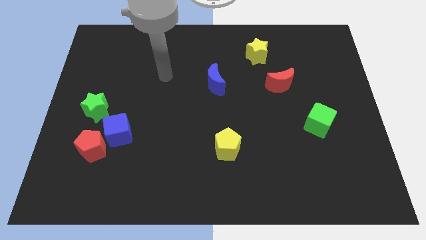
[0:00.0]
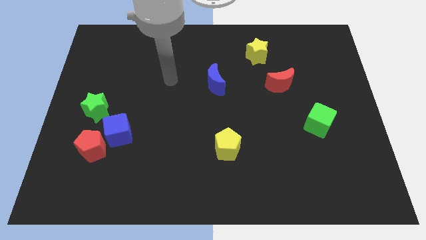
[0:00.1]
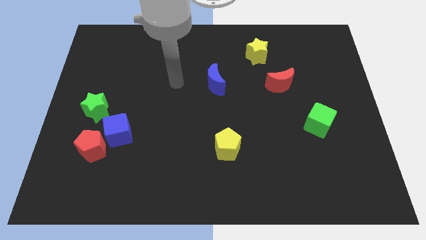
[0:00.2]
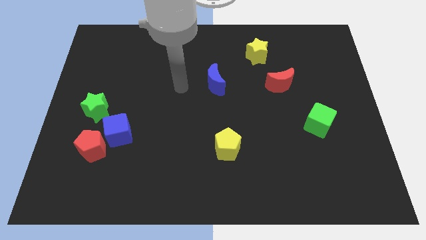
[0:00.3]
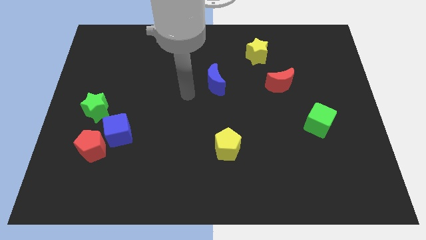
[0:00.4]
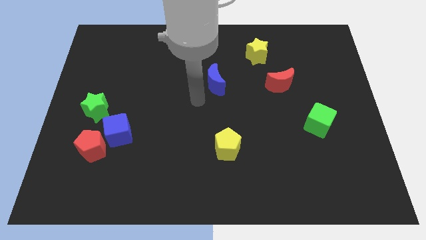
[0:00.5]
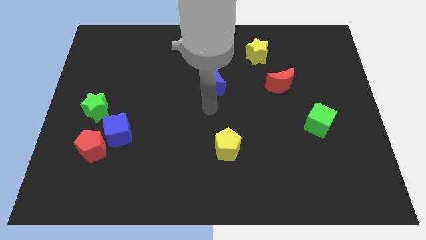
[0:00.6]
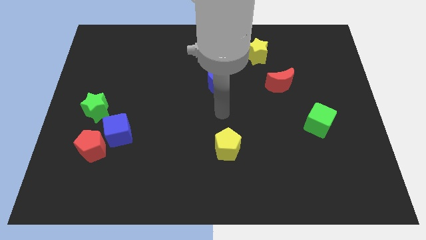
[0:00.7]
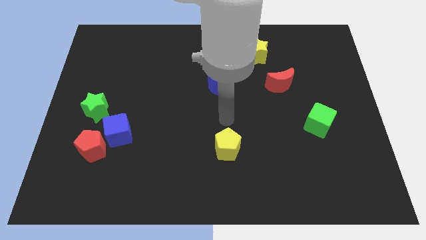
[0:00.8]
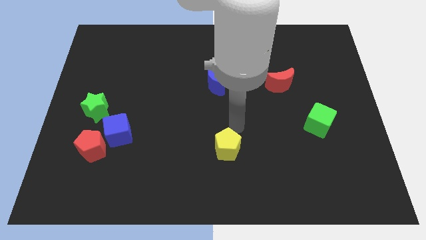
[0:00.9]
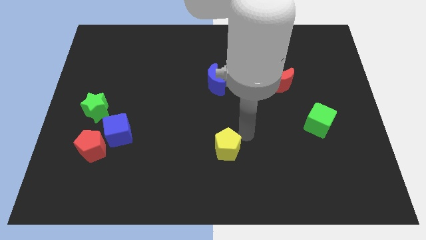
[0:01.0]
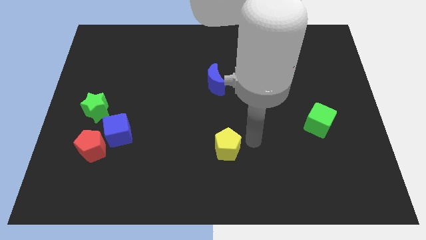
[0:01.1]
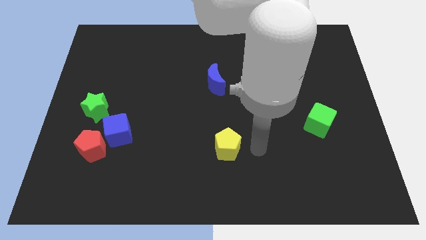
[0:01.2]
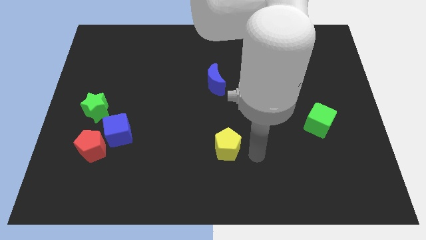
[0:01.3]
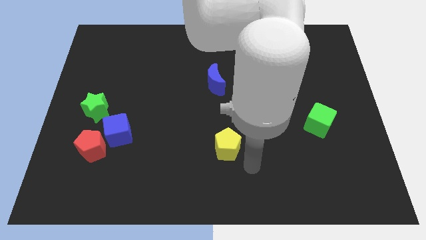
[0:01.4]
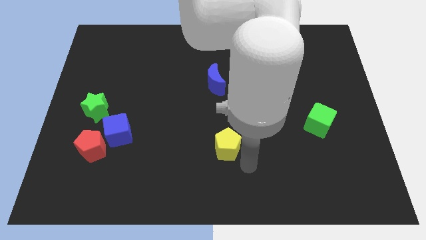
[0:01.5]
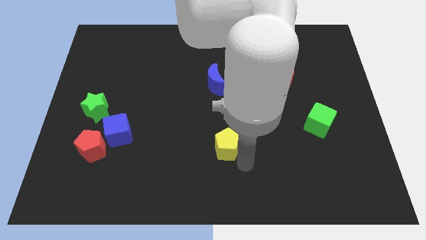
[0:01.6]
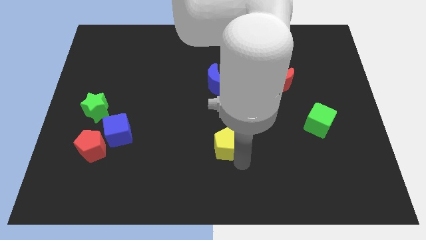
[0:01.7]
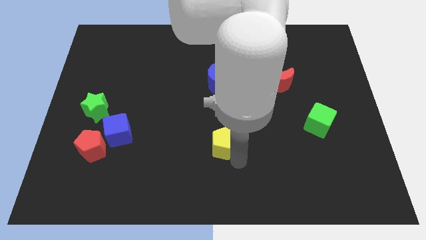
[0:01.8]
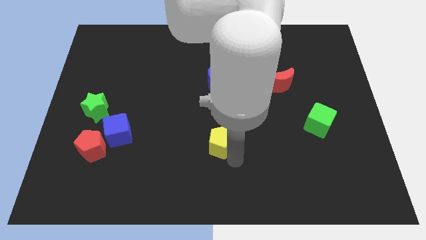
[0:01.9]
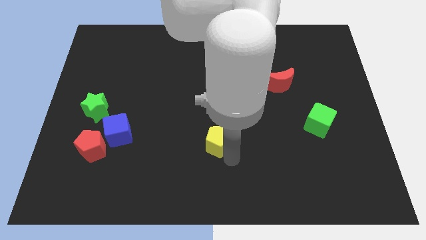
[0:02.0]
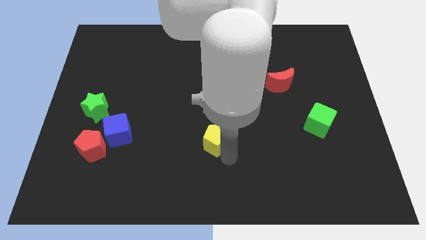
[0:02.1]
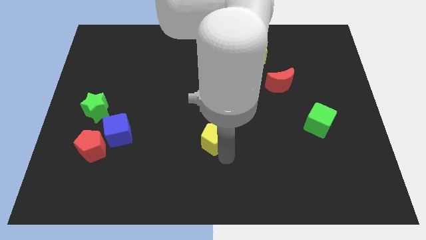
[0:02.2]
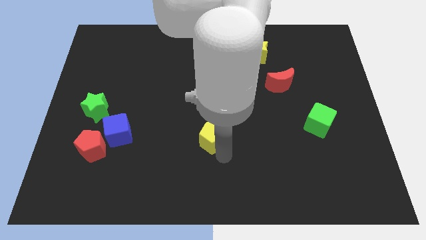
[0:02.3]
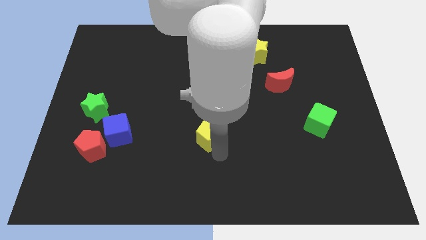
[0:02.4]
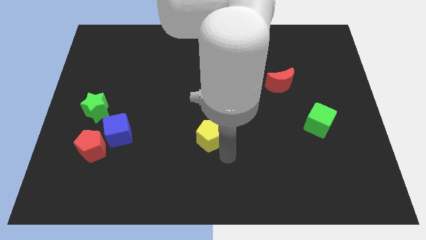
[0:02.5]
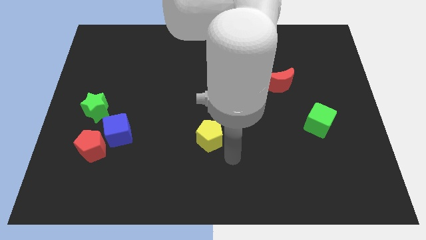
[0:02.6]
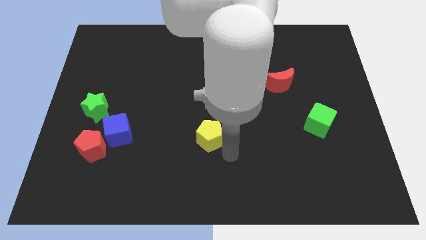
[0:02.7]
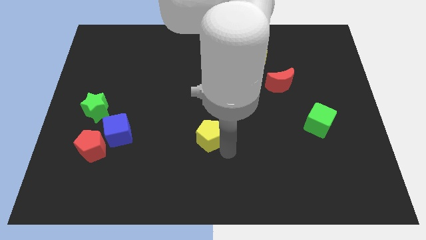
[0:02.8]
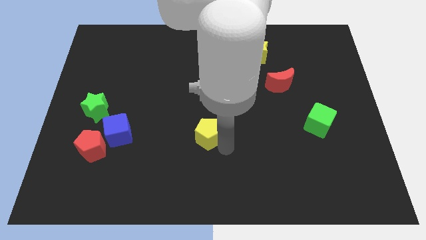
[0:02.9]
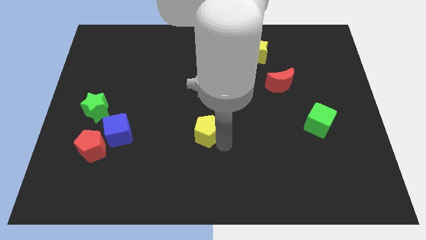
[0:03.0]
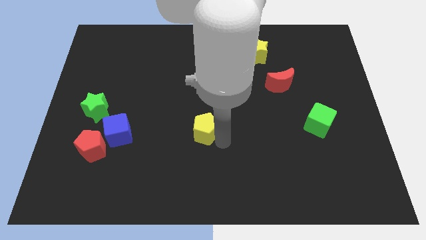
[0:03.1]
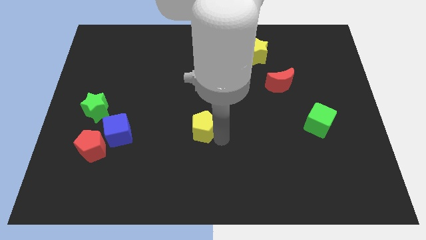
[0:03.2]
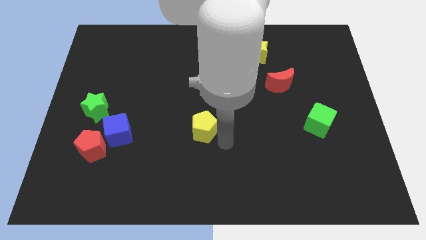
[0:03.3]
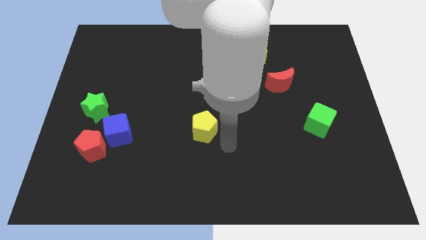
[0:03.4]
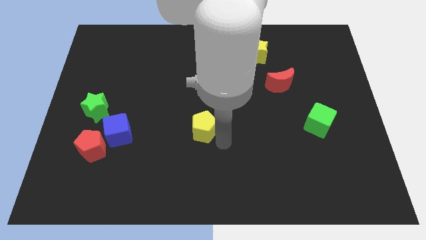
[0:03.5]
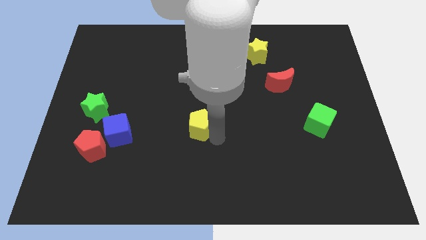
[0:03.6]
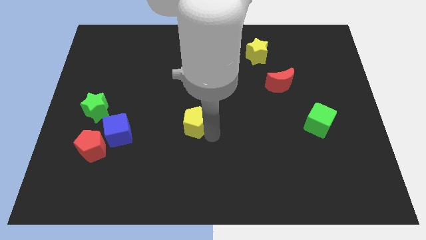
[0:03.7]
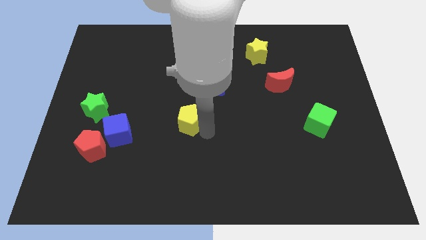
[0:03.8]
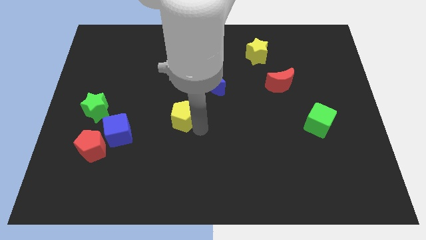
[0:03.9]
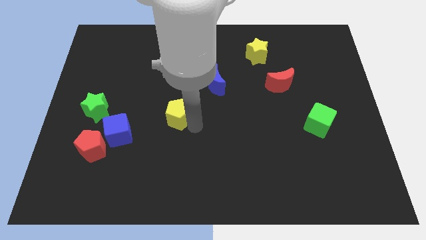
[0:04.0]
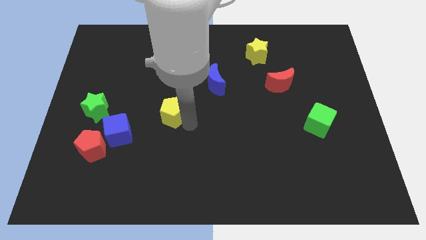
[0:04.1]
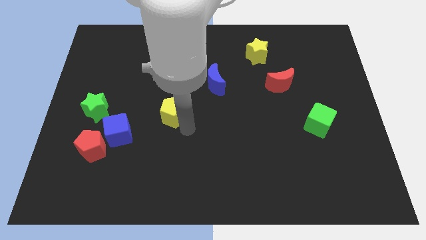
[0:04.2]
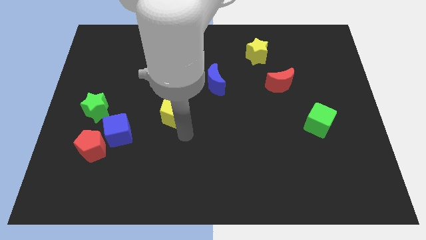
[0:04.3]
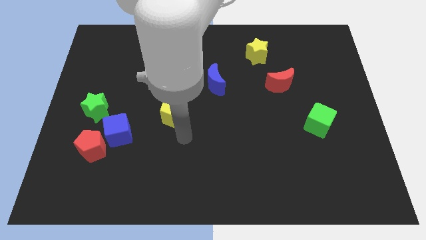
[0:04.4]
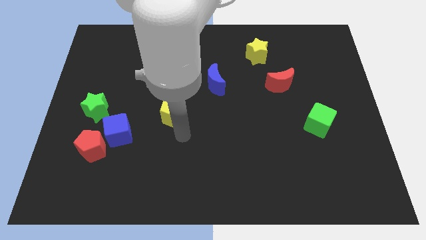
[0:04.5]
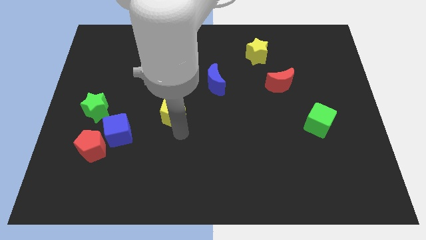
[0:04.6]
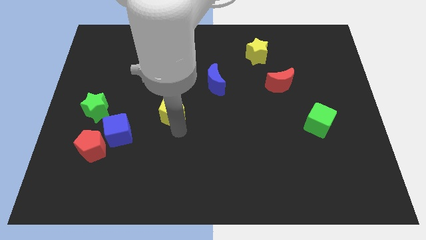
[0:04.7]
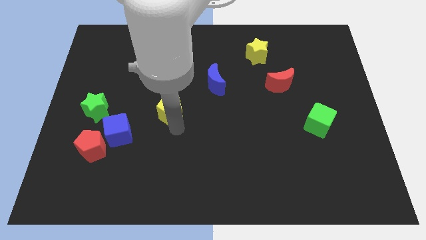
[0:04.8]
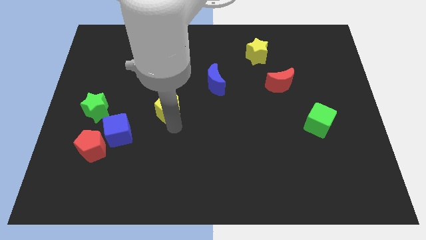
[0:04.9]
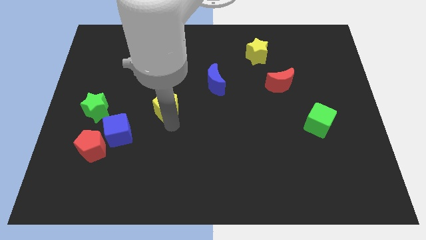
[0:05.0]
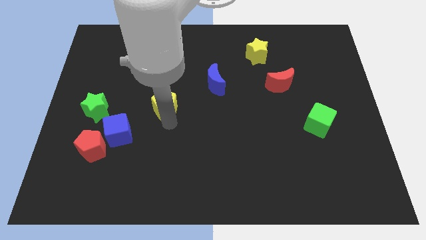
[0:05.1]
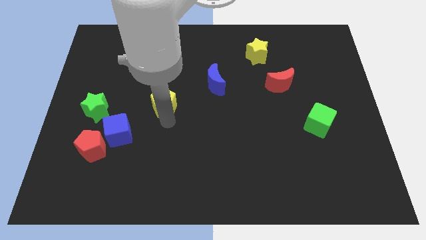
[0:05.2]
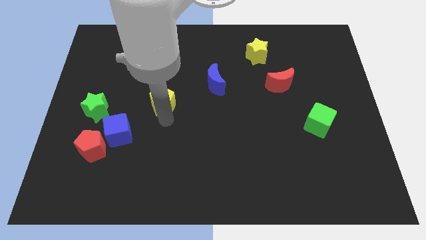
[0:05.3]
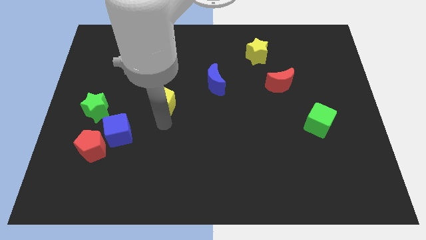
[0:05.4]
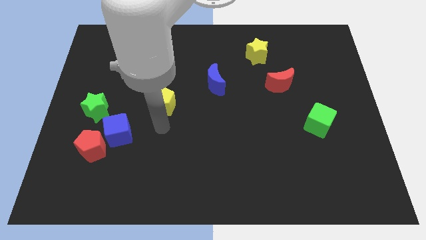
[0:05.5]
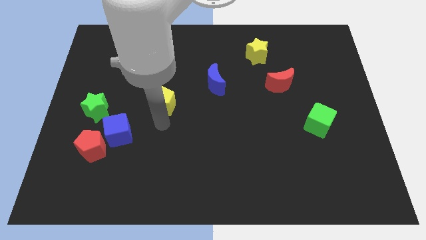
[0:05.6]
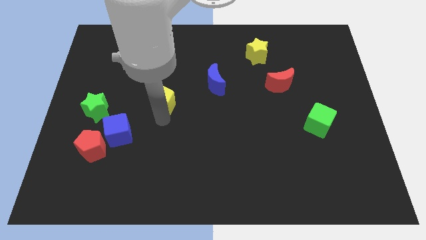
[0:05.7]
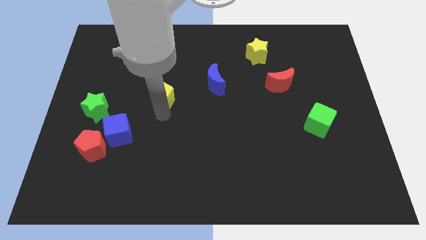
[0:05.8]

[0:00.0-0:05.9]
slide the yellow pentagon up and left

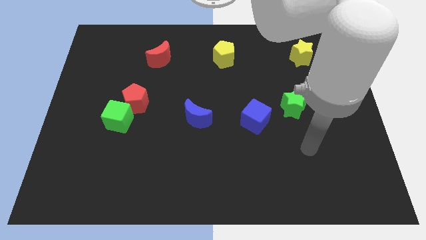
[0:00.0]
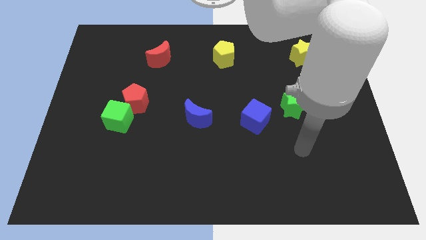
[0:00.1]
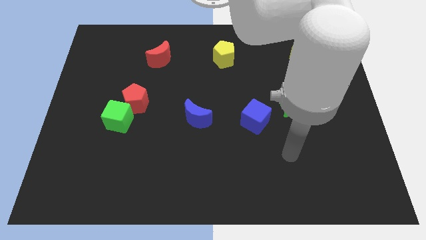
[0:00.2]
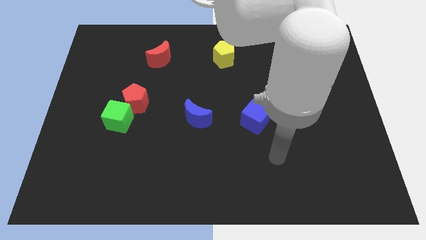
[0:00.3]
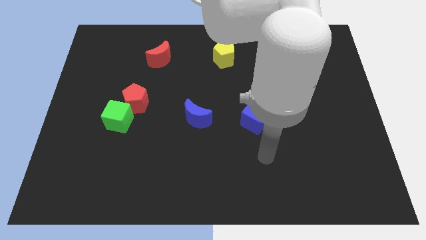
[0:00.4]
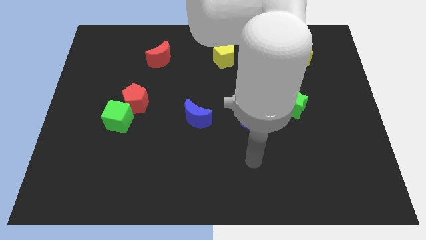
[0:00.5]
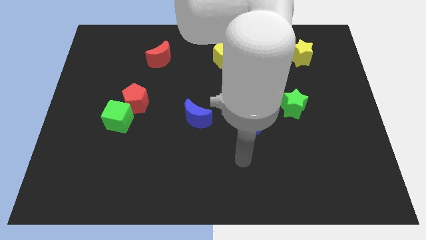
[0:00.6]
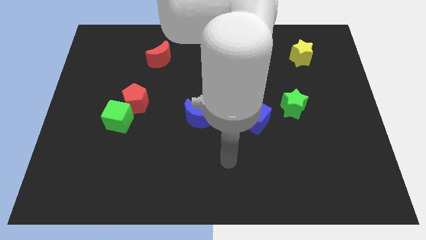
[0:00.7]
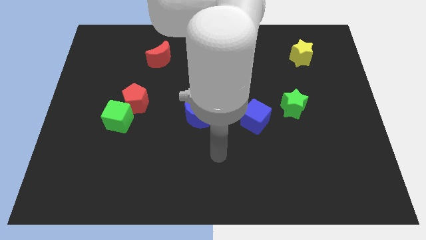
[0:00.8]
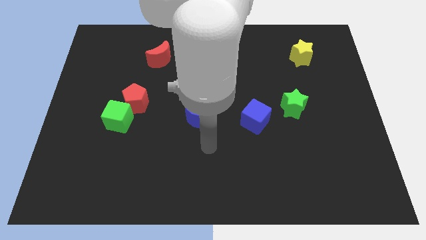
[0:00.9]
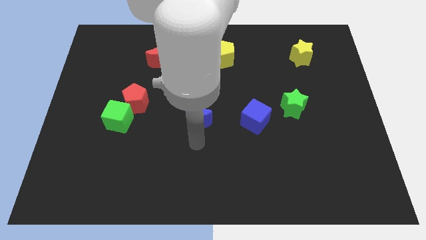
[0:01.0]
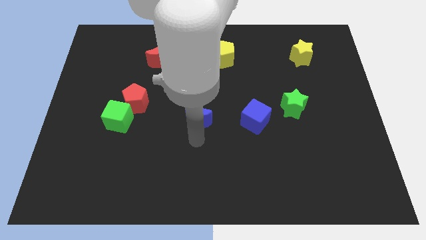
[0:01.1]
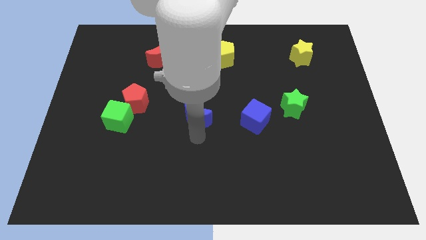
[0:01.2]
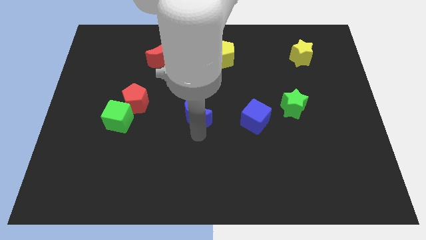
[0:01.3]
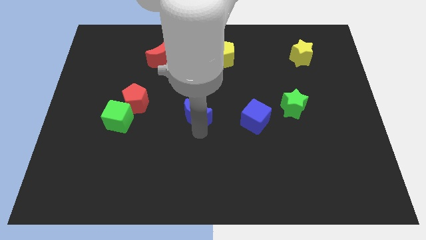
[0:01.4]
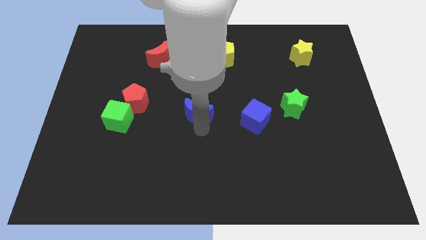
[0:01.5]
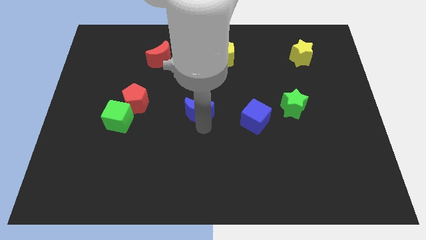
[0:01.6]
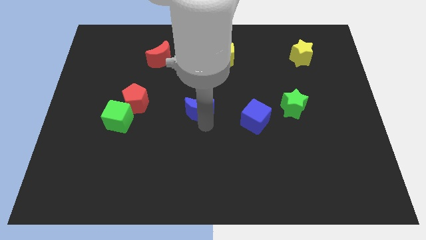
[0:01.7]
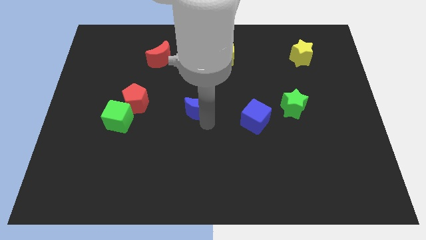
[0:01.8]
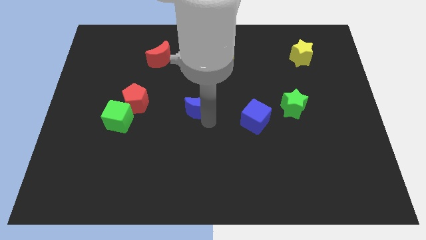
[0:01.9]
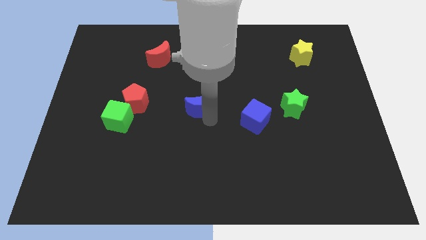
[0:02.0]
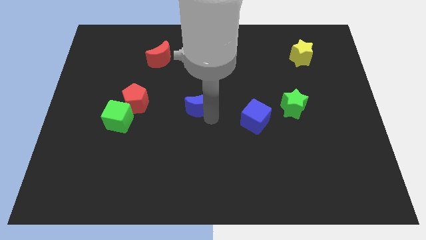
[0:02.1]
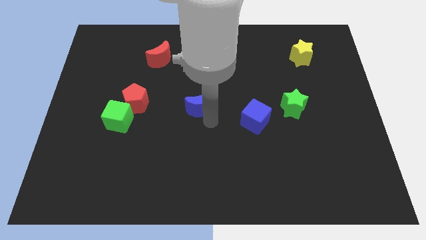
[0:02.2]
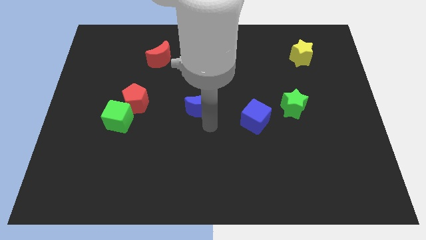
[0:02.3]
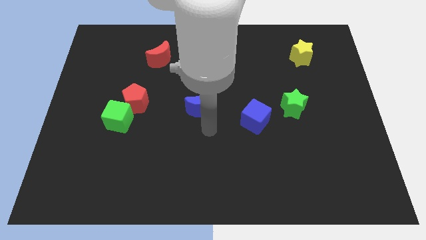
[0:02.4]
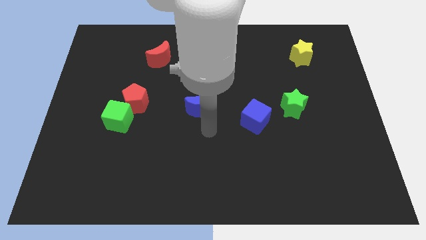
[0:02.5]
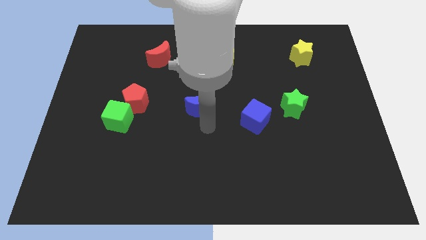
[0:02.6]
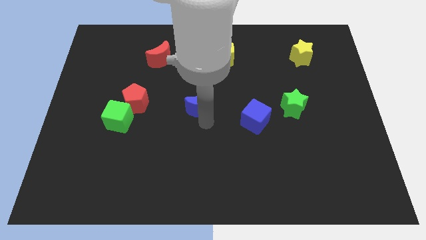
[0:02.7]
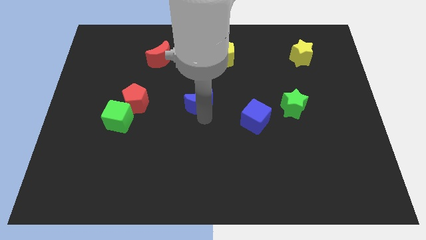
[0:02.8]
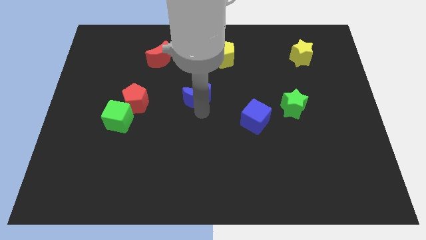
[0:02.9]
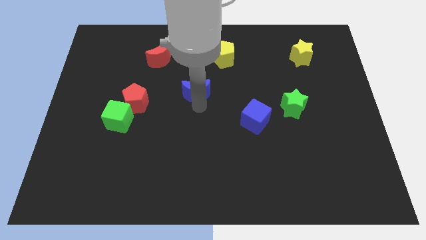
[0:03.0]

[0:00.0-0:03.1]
push the blue moon upwards a bit
